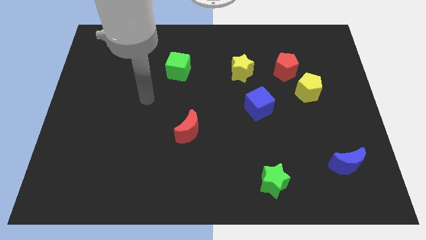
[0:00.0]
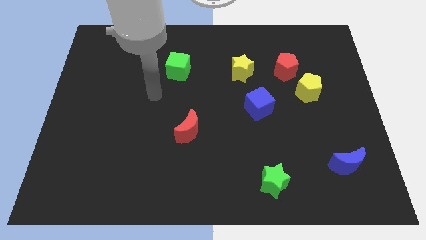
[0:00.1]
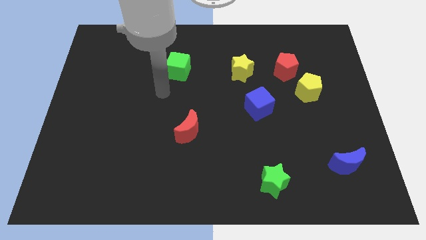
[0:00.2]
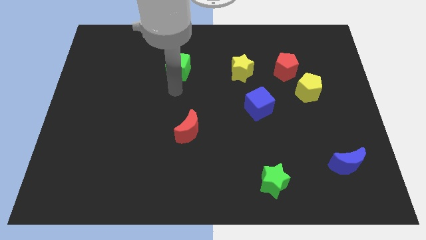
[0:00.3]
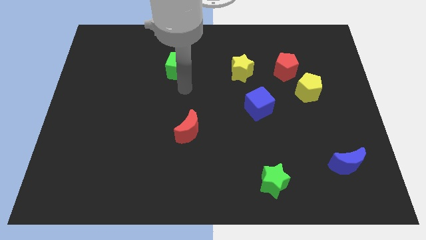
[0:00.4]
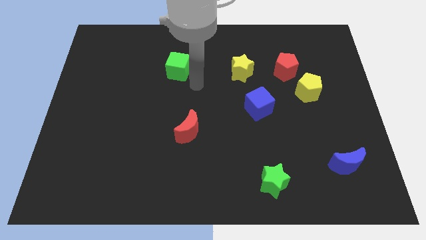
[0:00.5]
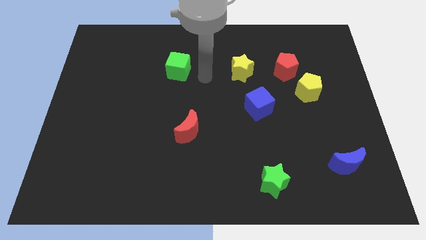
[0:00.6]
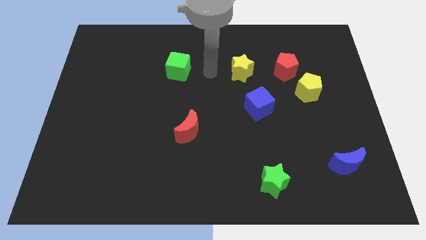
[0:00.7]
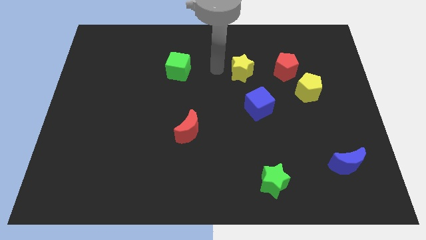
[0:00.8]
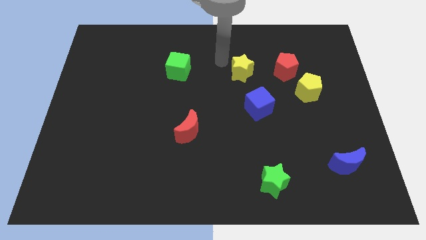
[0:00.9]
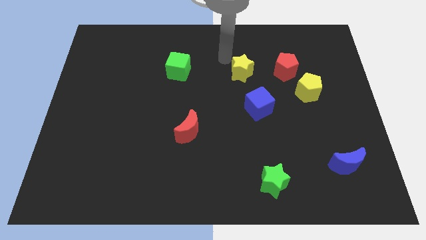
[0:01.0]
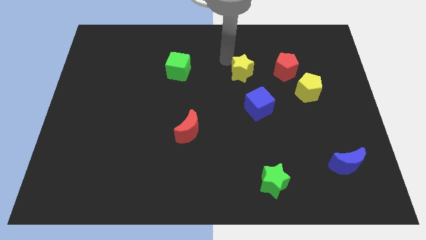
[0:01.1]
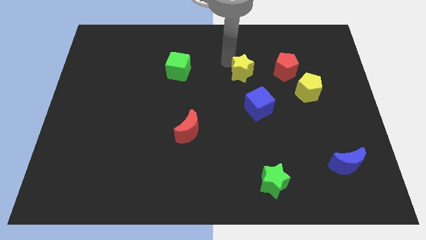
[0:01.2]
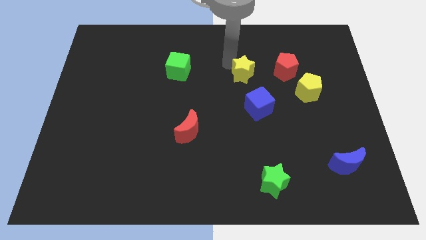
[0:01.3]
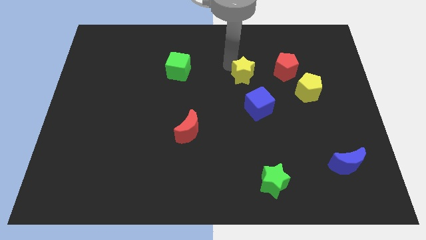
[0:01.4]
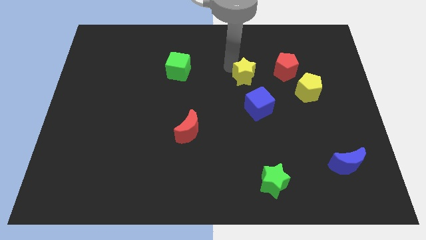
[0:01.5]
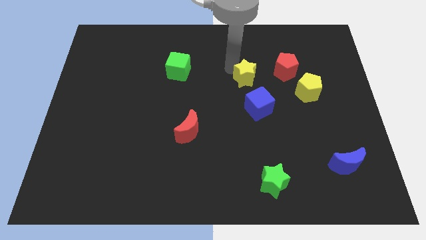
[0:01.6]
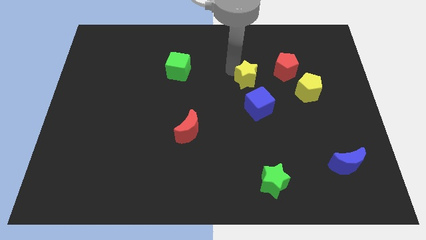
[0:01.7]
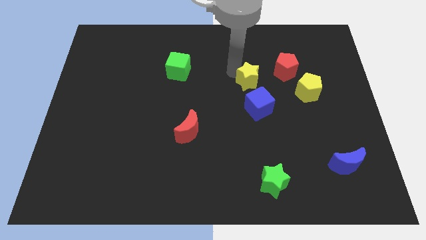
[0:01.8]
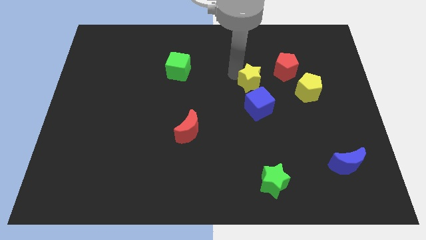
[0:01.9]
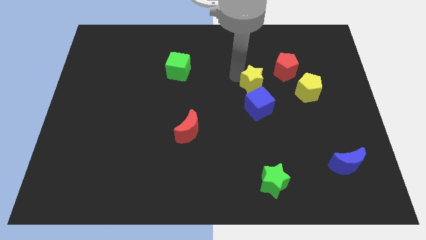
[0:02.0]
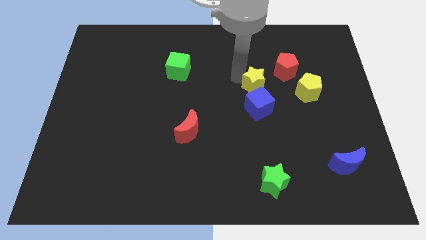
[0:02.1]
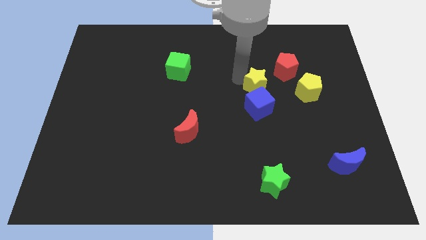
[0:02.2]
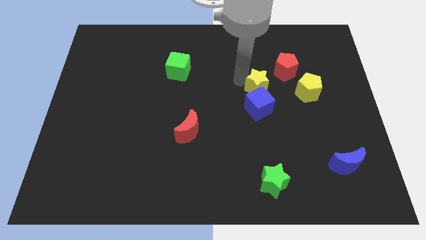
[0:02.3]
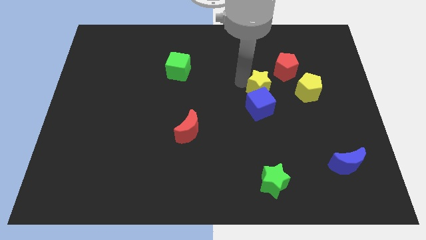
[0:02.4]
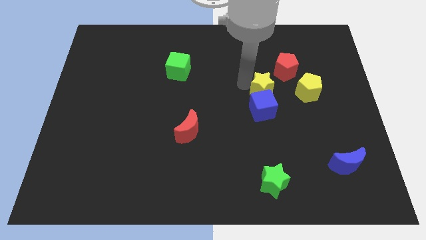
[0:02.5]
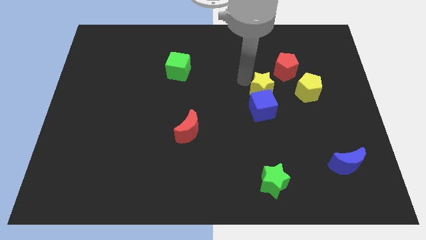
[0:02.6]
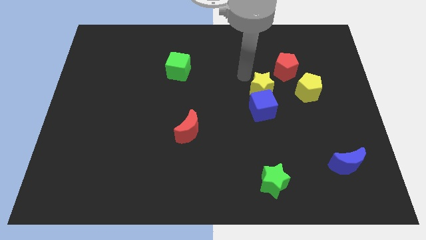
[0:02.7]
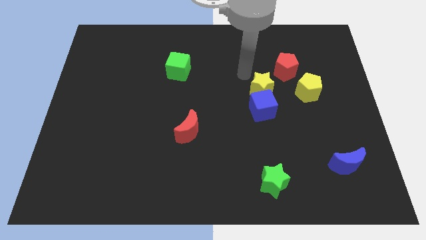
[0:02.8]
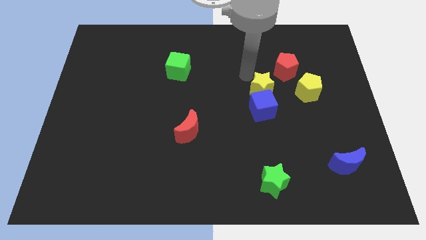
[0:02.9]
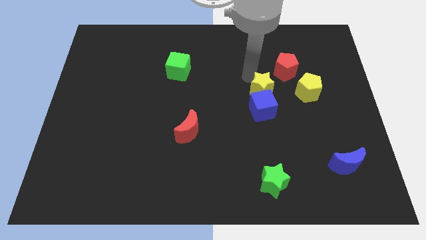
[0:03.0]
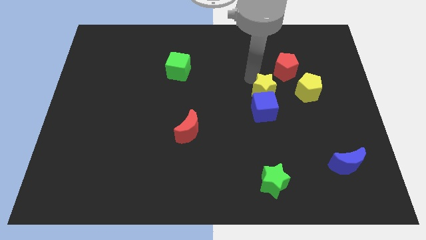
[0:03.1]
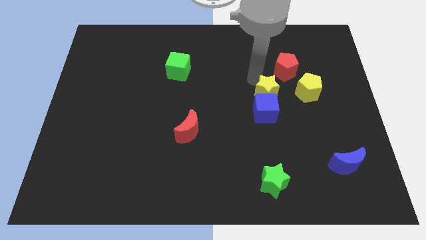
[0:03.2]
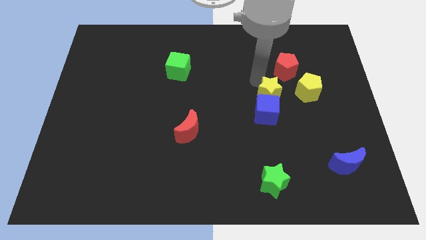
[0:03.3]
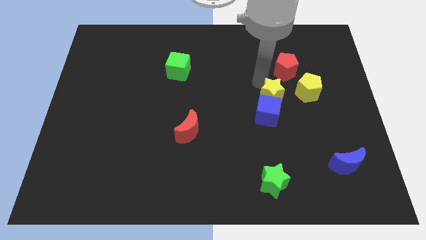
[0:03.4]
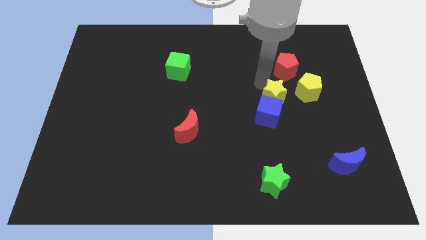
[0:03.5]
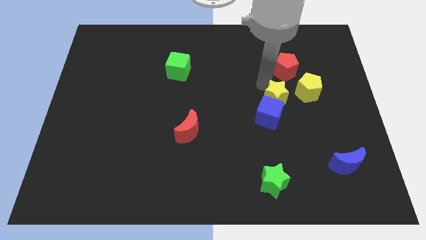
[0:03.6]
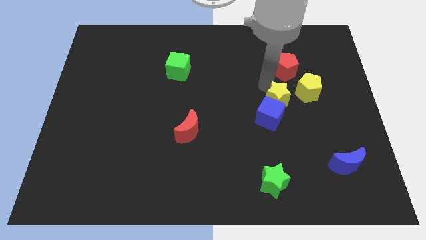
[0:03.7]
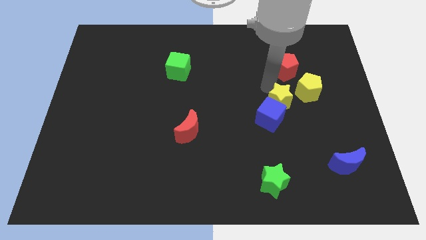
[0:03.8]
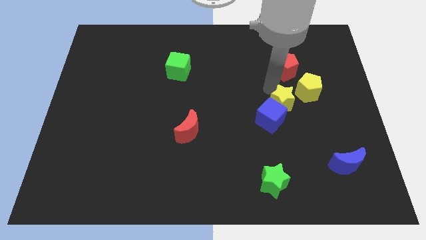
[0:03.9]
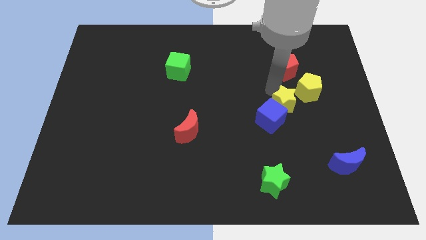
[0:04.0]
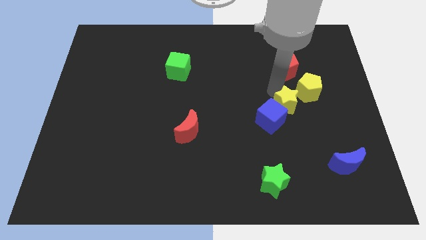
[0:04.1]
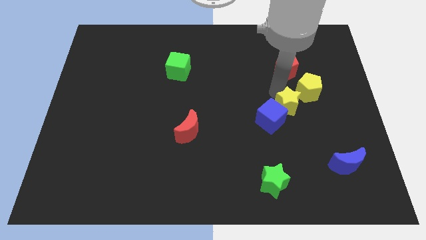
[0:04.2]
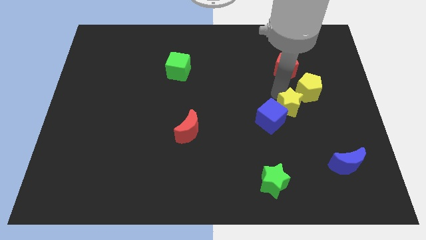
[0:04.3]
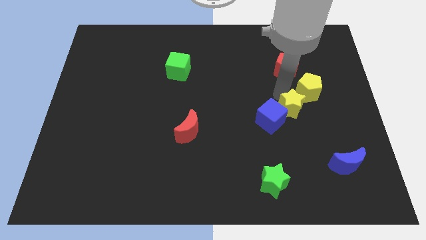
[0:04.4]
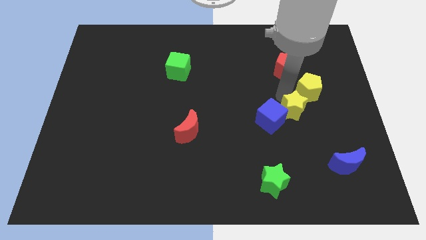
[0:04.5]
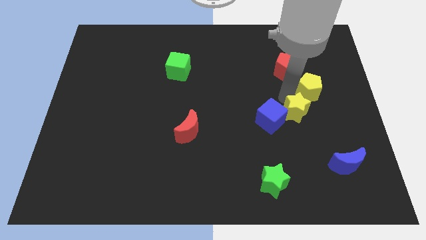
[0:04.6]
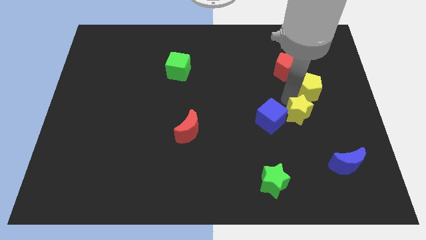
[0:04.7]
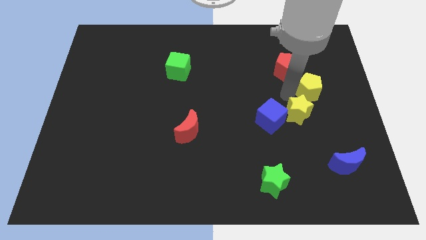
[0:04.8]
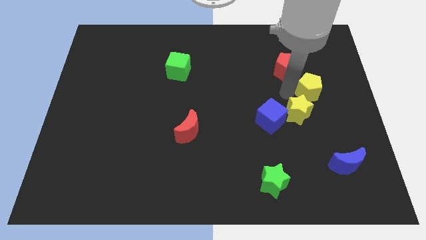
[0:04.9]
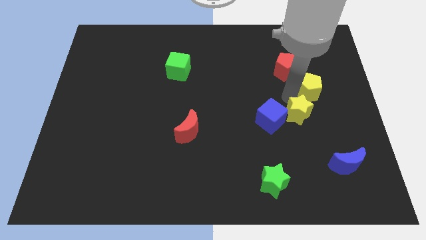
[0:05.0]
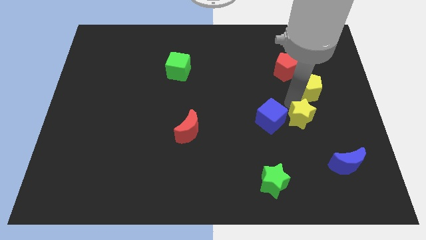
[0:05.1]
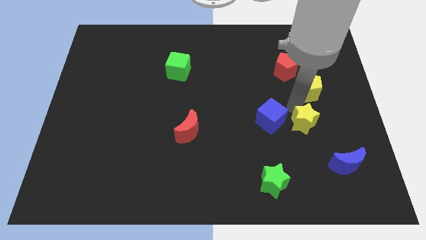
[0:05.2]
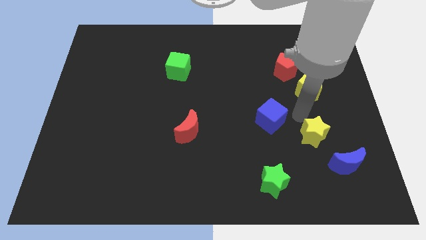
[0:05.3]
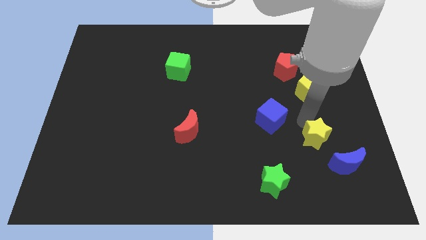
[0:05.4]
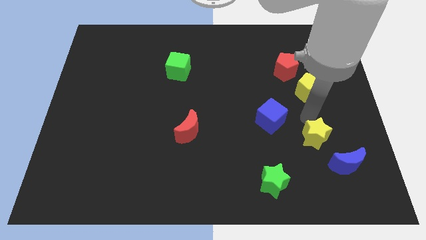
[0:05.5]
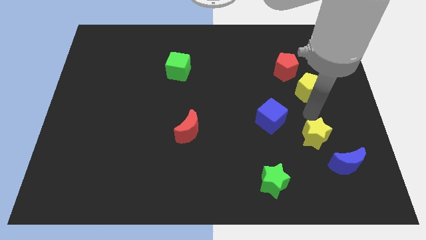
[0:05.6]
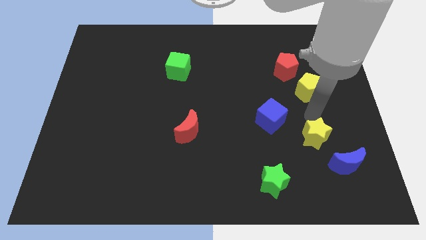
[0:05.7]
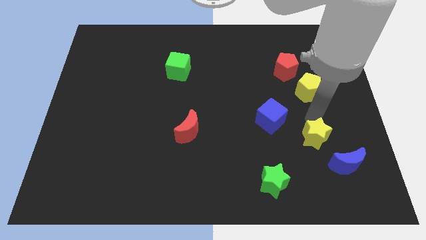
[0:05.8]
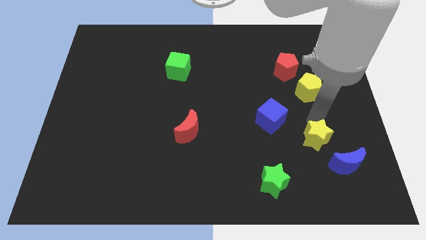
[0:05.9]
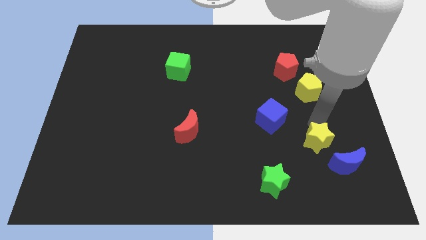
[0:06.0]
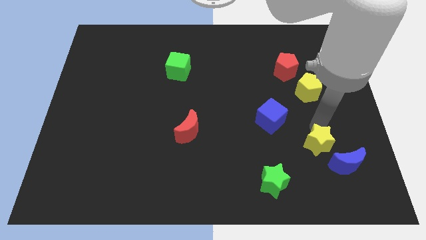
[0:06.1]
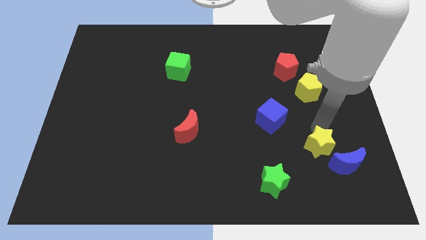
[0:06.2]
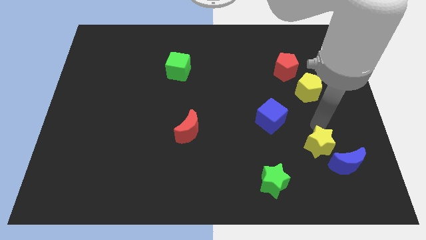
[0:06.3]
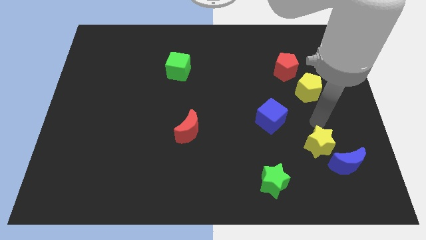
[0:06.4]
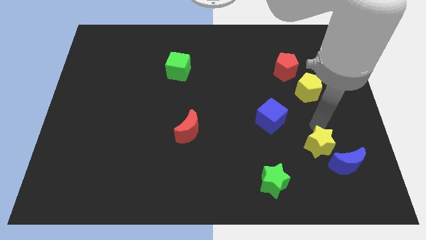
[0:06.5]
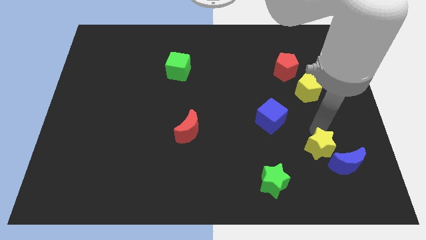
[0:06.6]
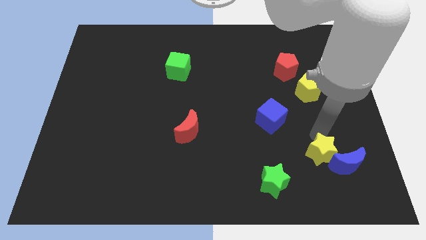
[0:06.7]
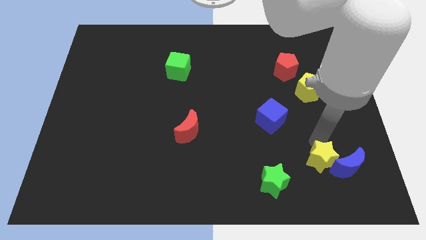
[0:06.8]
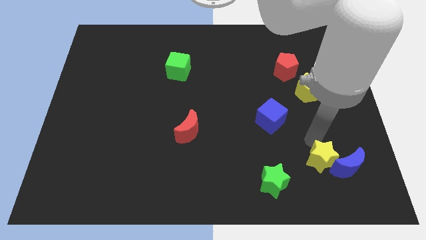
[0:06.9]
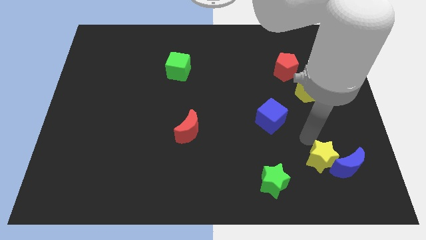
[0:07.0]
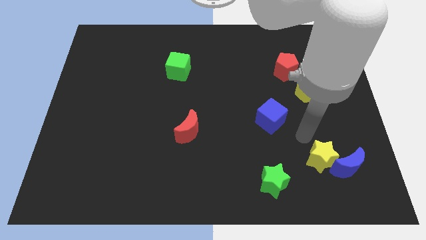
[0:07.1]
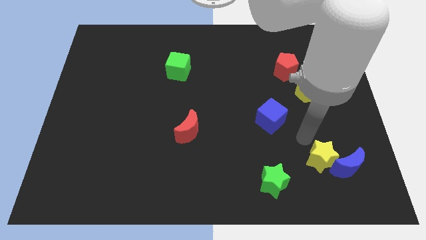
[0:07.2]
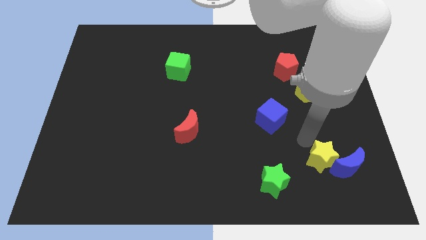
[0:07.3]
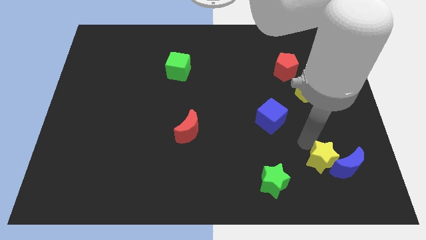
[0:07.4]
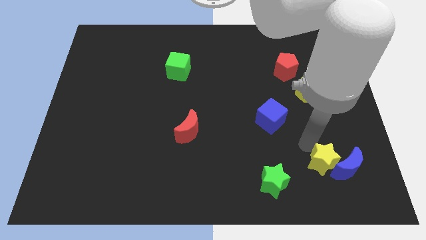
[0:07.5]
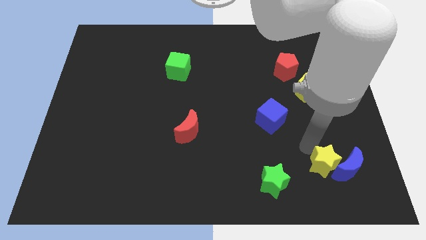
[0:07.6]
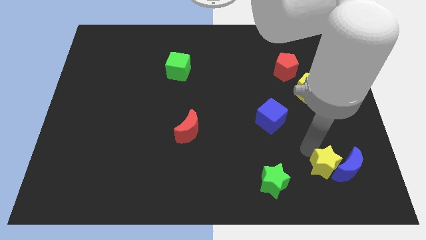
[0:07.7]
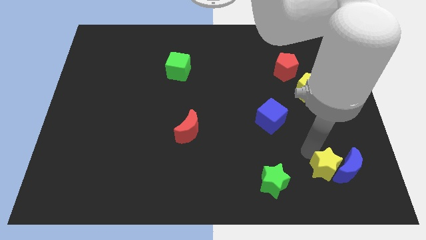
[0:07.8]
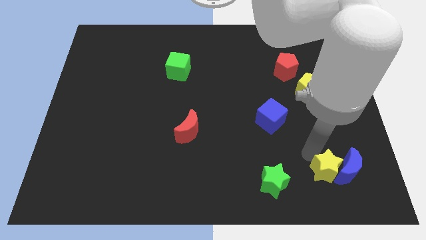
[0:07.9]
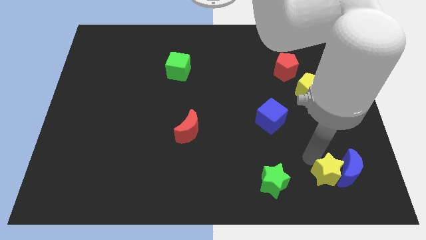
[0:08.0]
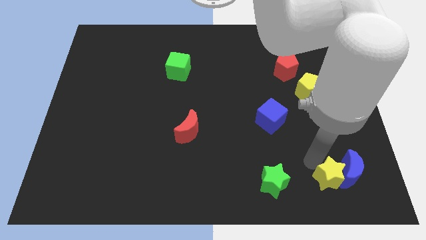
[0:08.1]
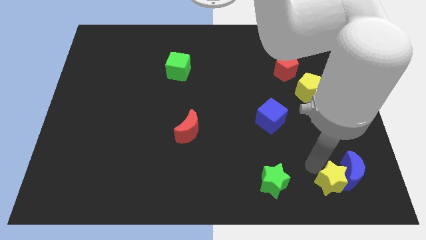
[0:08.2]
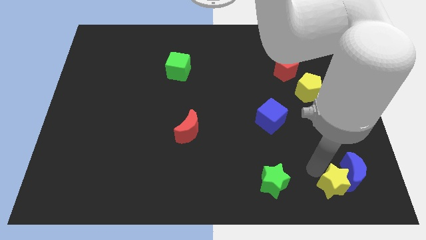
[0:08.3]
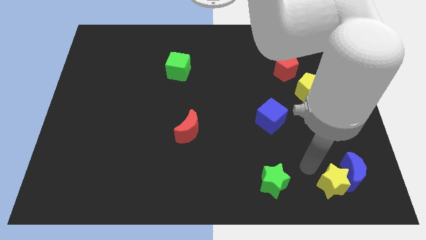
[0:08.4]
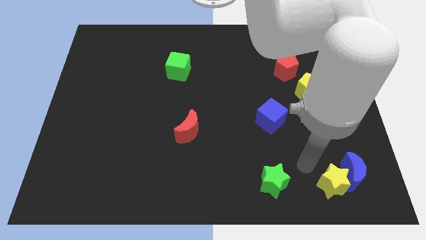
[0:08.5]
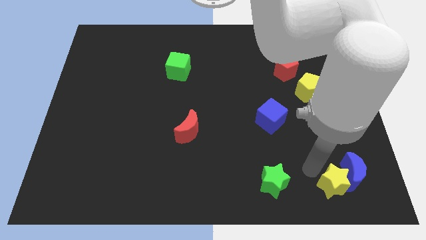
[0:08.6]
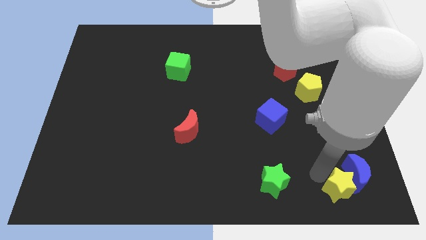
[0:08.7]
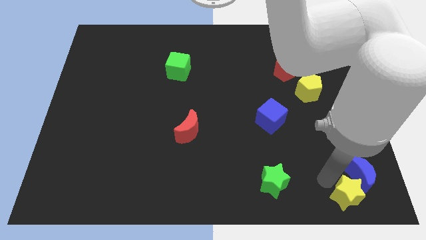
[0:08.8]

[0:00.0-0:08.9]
slide the yellow star to the bottom right of the board
